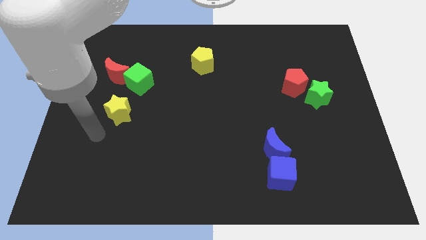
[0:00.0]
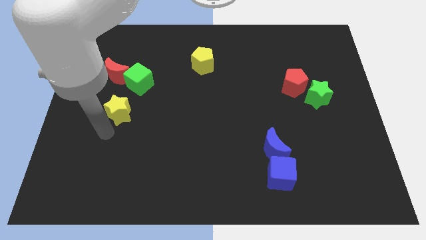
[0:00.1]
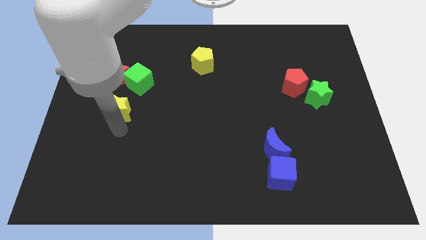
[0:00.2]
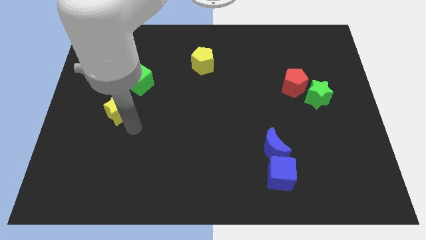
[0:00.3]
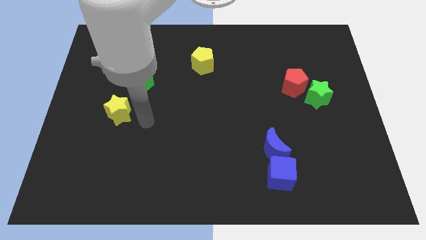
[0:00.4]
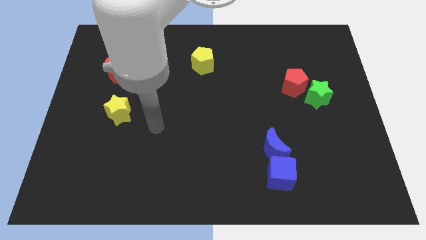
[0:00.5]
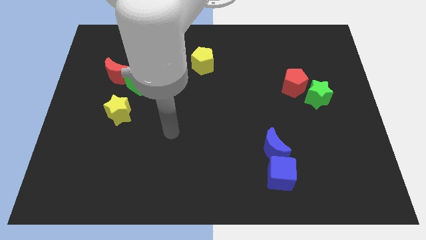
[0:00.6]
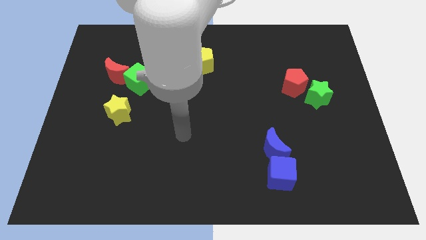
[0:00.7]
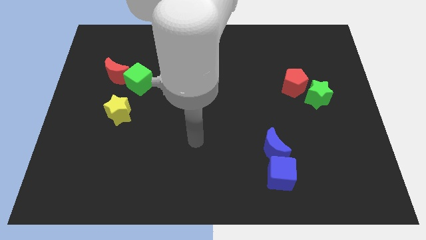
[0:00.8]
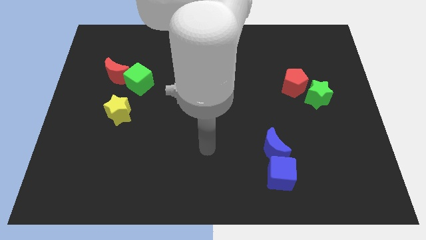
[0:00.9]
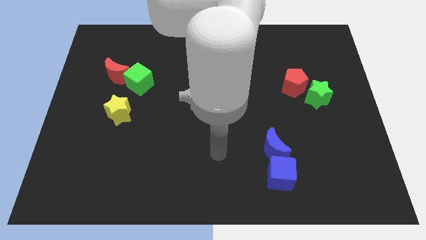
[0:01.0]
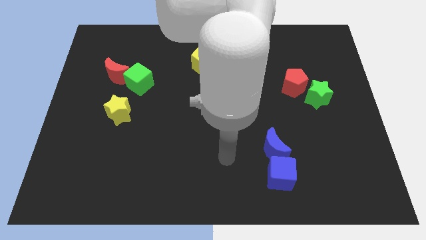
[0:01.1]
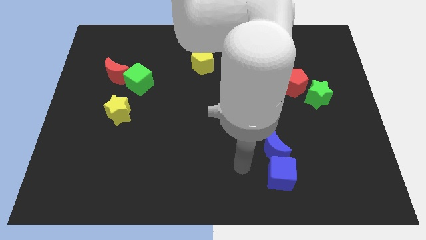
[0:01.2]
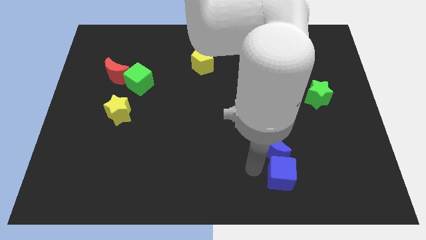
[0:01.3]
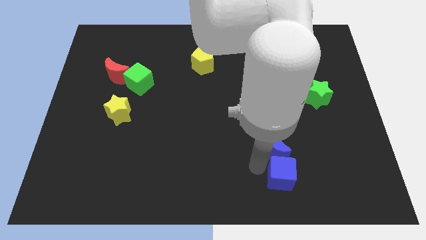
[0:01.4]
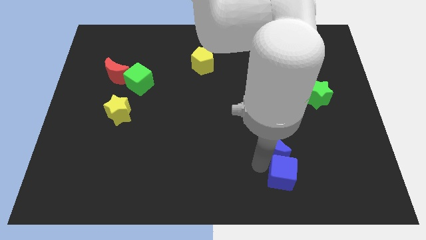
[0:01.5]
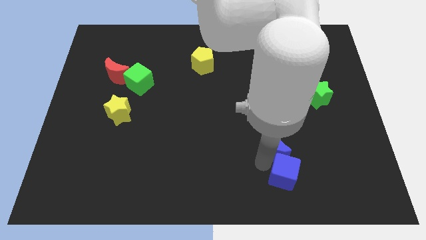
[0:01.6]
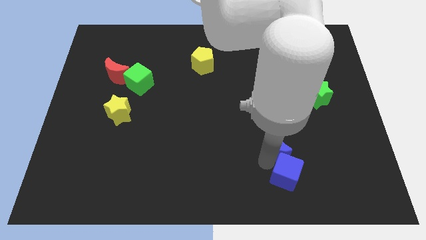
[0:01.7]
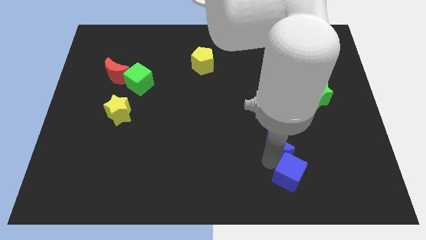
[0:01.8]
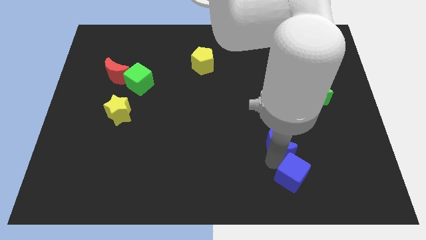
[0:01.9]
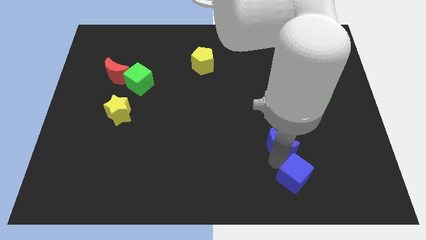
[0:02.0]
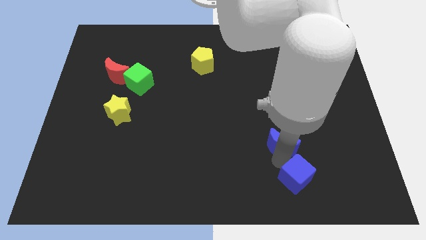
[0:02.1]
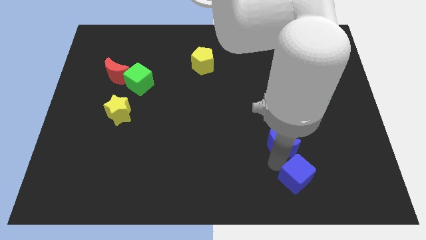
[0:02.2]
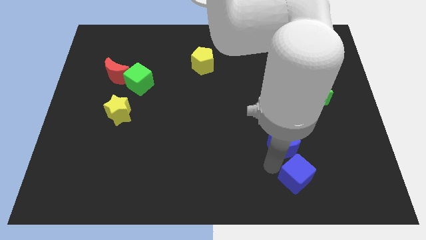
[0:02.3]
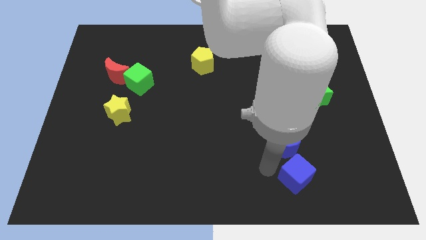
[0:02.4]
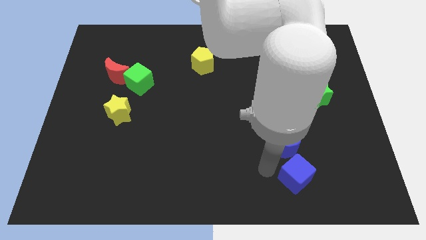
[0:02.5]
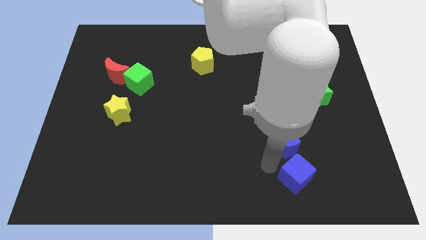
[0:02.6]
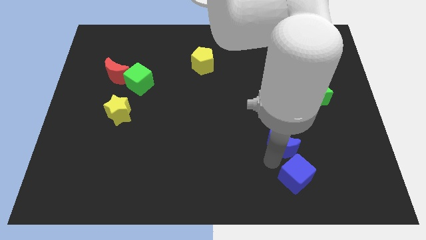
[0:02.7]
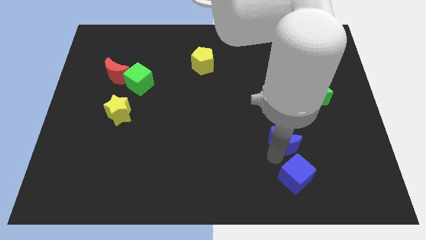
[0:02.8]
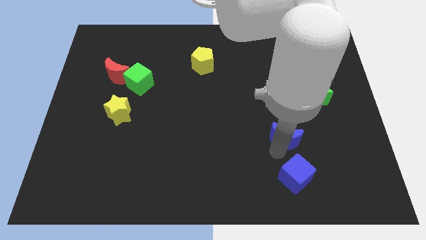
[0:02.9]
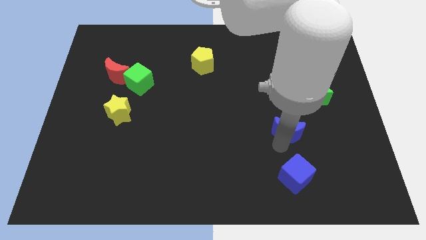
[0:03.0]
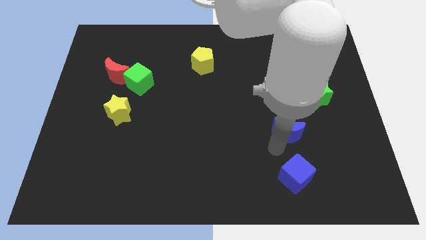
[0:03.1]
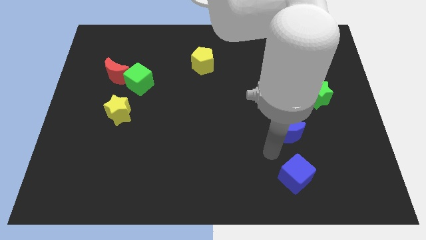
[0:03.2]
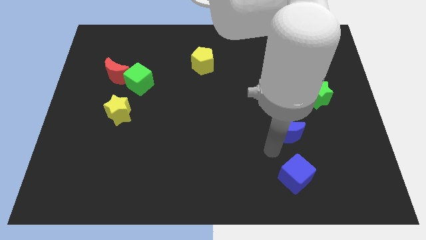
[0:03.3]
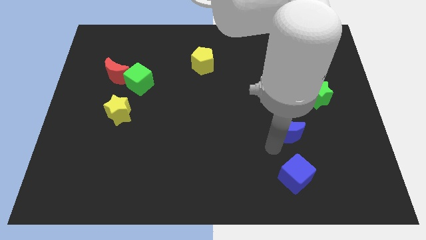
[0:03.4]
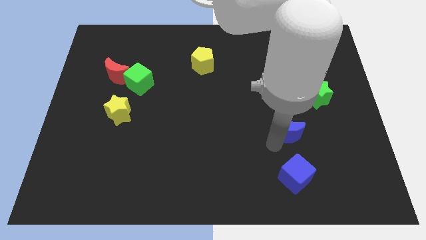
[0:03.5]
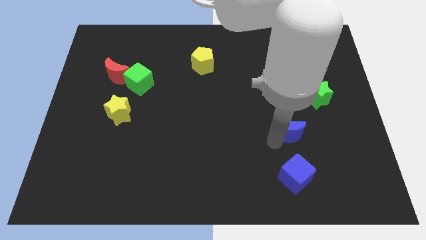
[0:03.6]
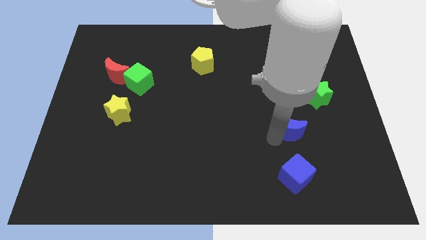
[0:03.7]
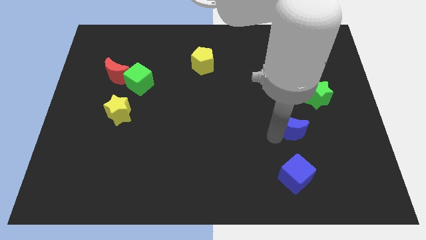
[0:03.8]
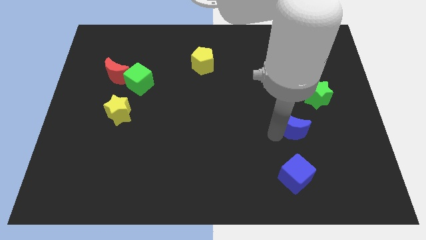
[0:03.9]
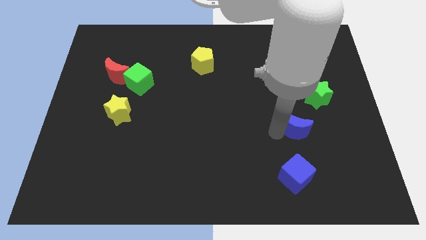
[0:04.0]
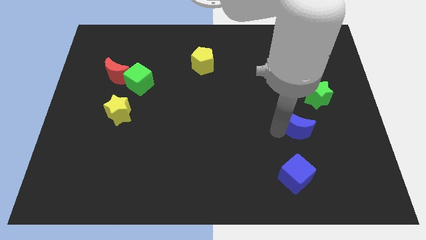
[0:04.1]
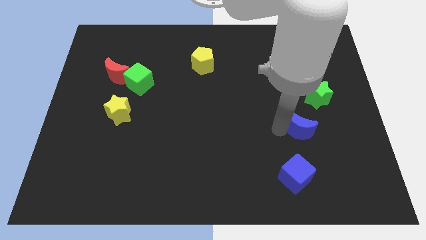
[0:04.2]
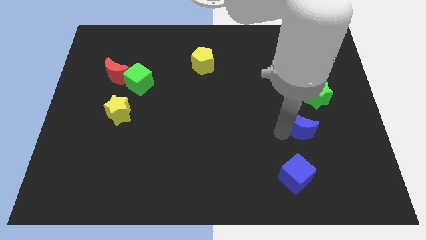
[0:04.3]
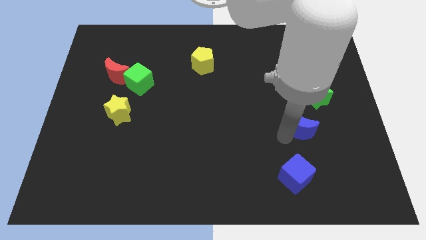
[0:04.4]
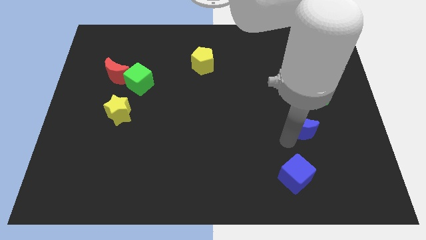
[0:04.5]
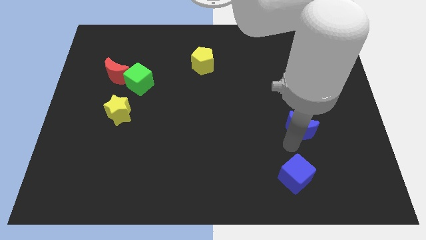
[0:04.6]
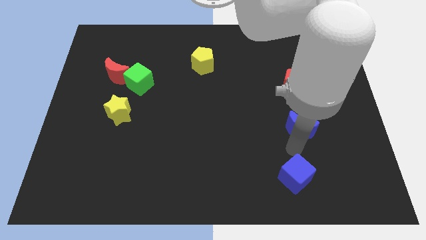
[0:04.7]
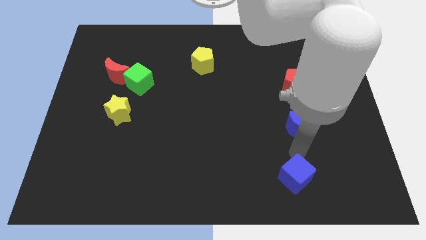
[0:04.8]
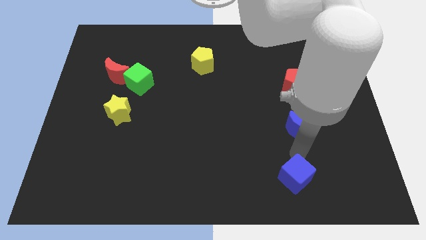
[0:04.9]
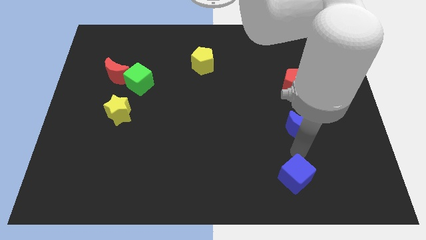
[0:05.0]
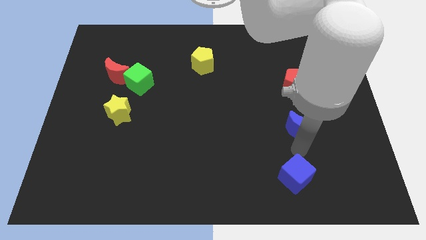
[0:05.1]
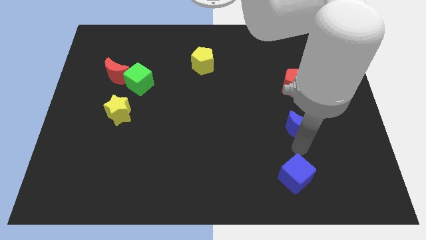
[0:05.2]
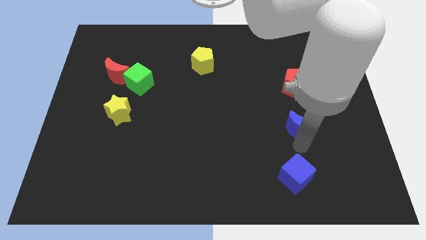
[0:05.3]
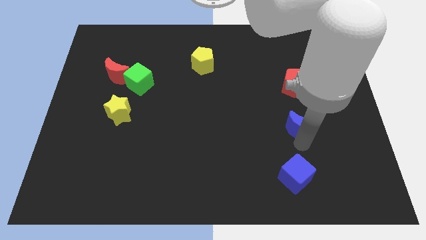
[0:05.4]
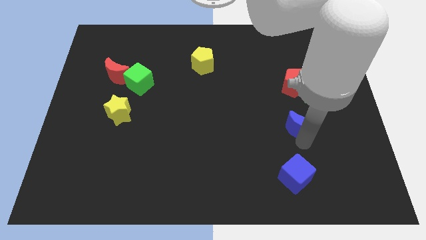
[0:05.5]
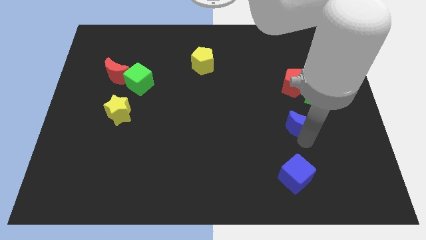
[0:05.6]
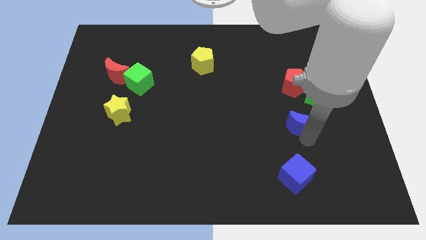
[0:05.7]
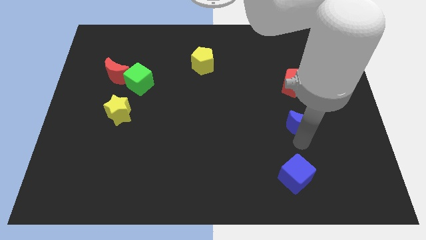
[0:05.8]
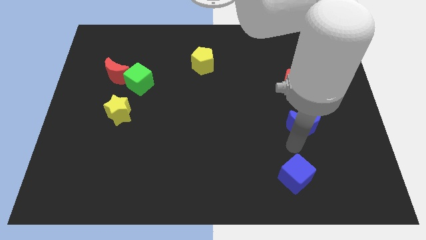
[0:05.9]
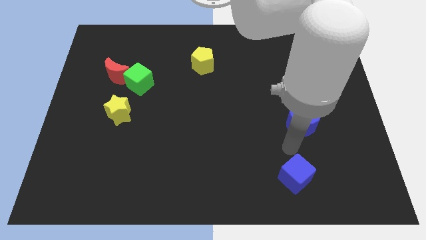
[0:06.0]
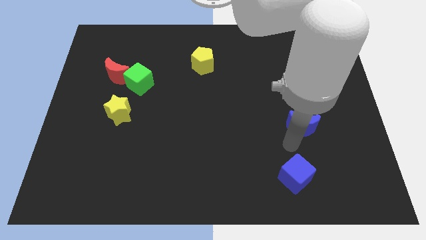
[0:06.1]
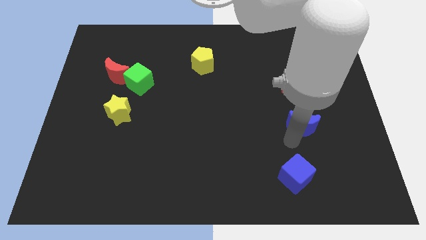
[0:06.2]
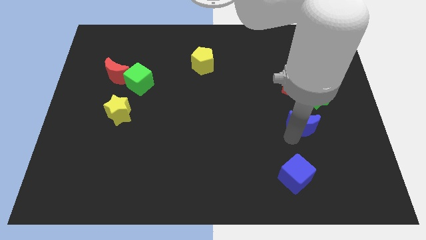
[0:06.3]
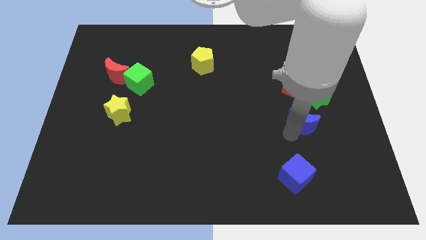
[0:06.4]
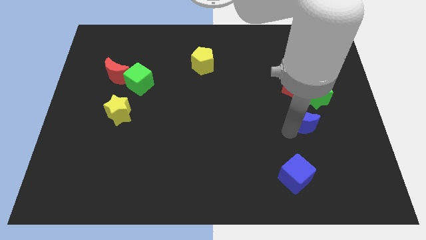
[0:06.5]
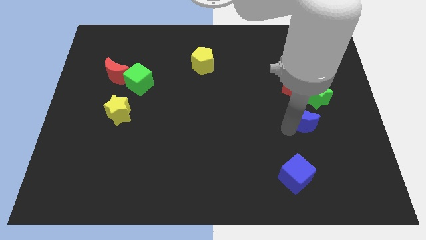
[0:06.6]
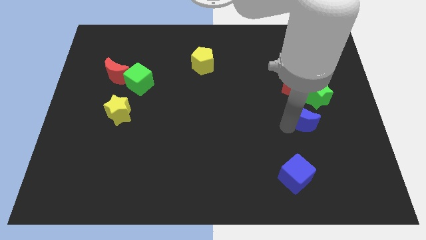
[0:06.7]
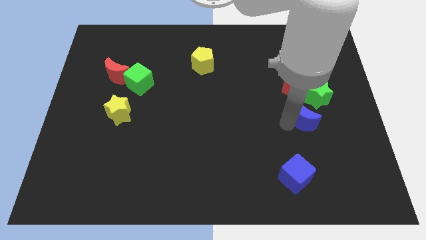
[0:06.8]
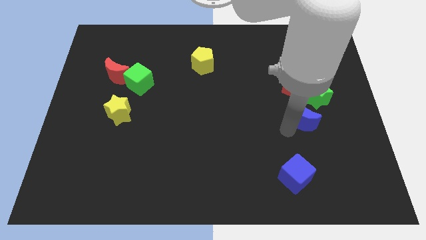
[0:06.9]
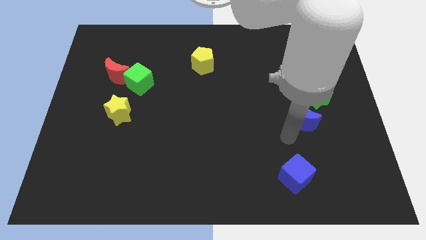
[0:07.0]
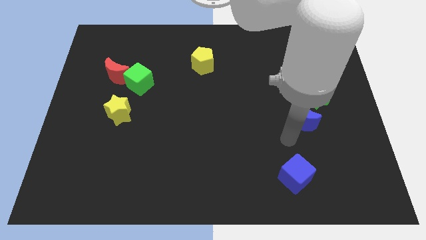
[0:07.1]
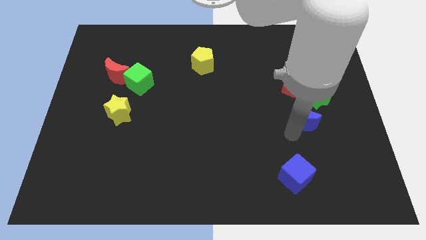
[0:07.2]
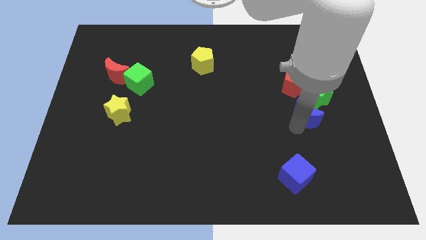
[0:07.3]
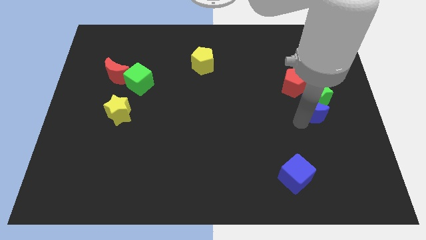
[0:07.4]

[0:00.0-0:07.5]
push the blue moon close to the green star
